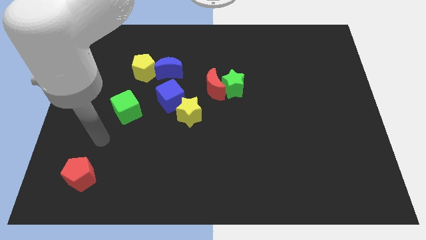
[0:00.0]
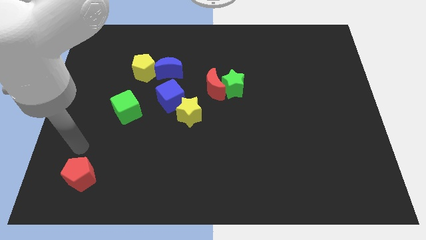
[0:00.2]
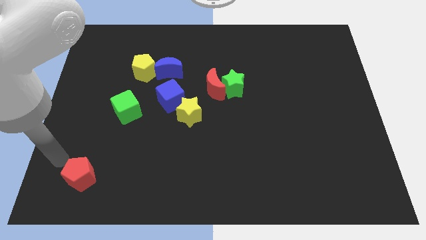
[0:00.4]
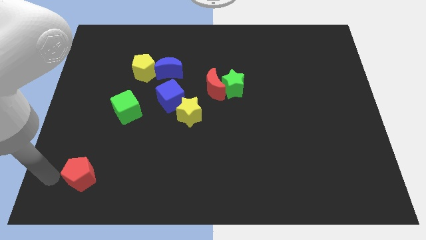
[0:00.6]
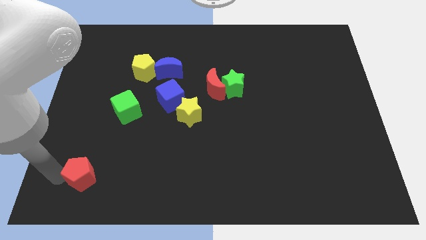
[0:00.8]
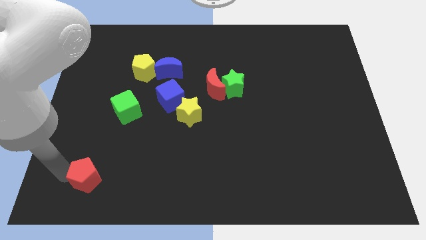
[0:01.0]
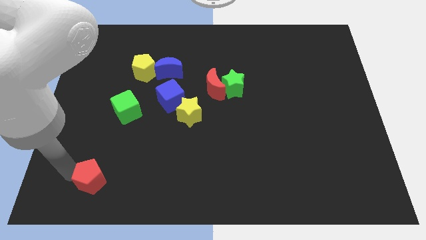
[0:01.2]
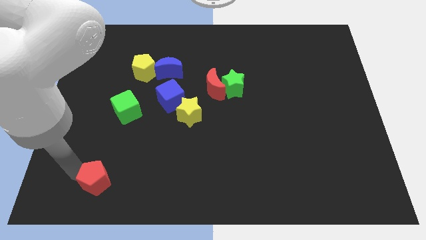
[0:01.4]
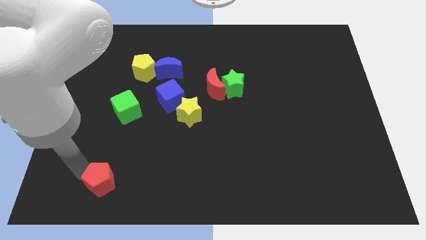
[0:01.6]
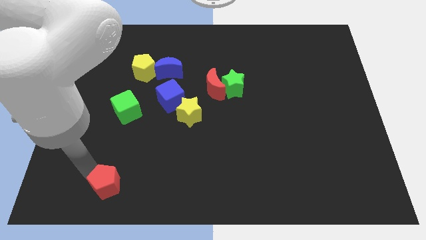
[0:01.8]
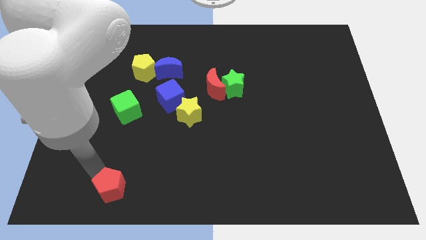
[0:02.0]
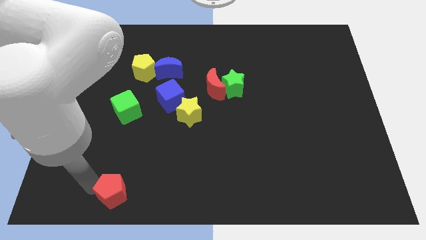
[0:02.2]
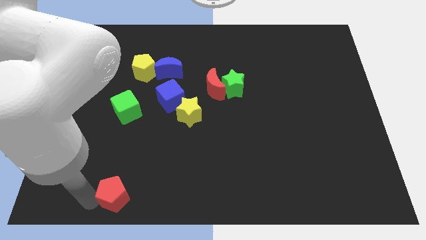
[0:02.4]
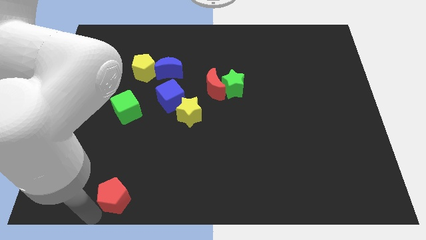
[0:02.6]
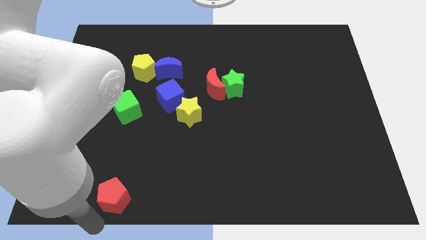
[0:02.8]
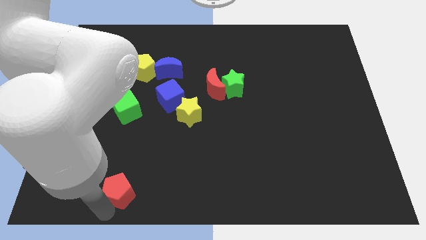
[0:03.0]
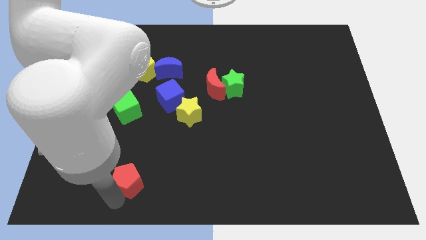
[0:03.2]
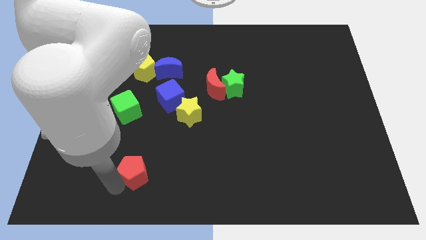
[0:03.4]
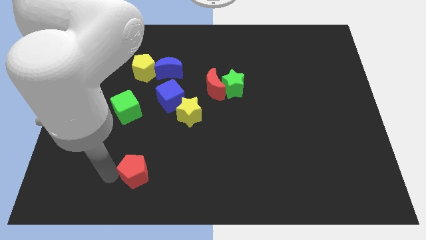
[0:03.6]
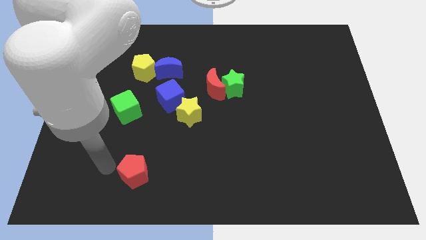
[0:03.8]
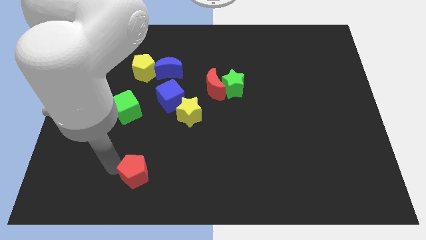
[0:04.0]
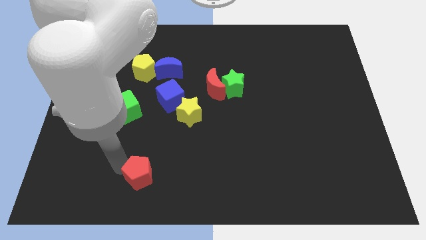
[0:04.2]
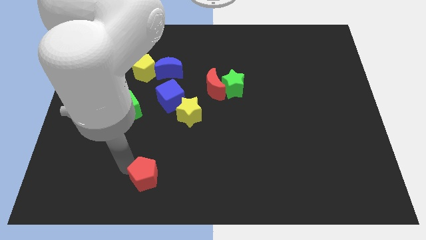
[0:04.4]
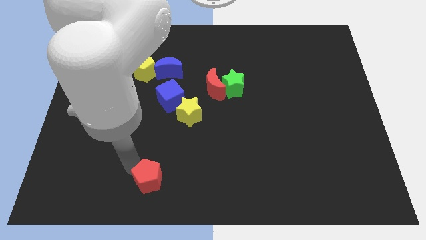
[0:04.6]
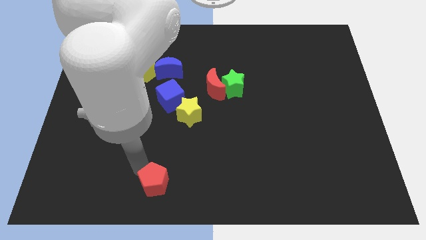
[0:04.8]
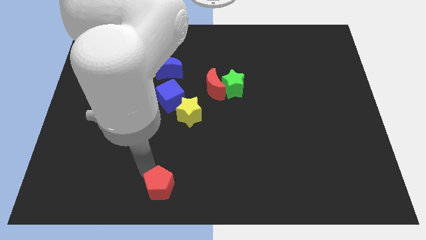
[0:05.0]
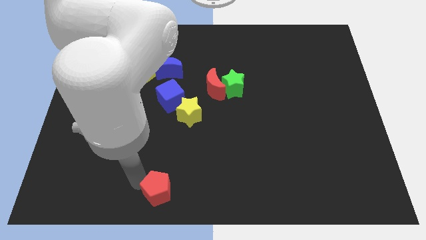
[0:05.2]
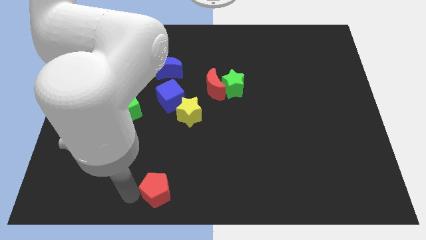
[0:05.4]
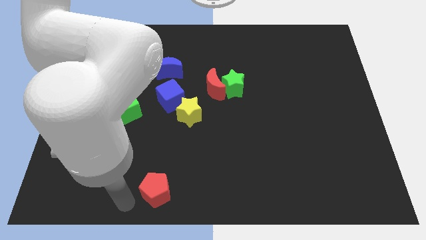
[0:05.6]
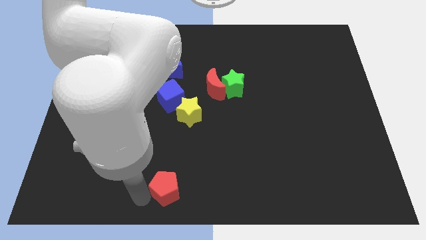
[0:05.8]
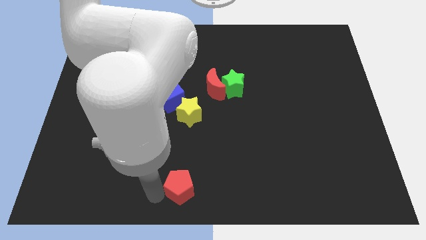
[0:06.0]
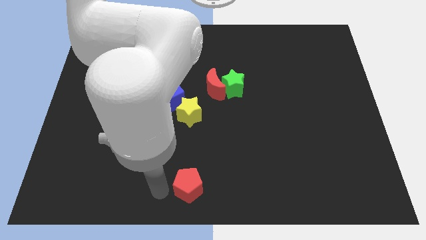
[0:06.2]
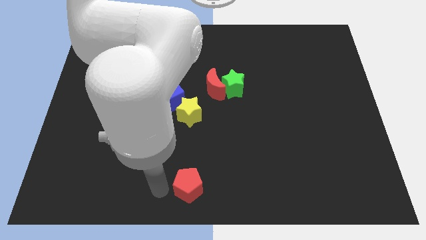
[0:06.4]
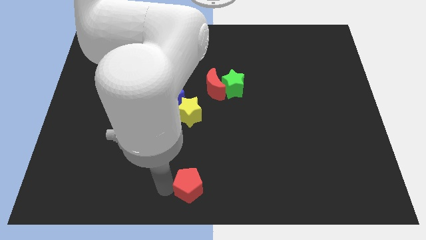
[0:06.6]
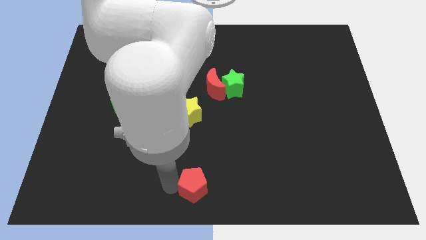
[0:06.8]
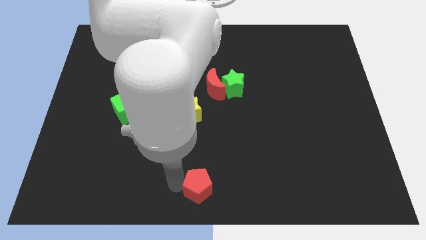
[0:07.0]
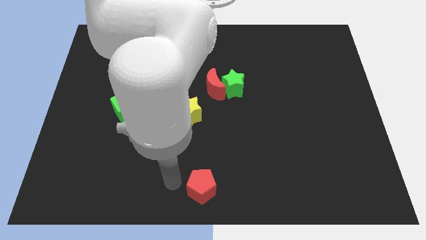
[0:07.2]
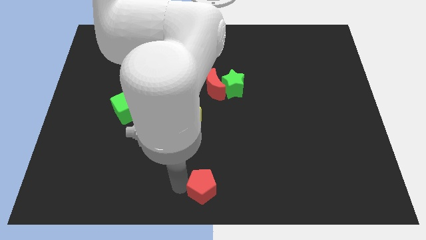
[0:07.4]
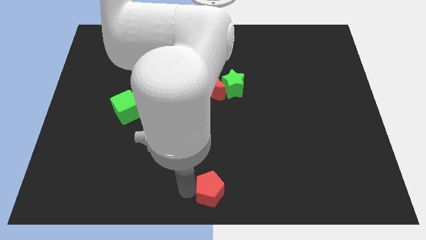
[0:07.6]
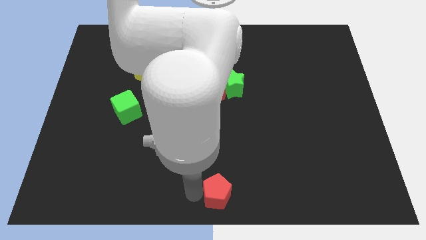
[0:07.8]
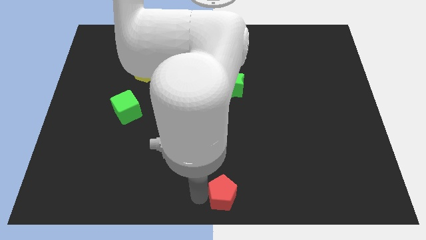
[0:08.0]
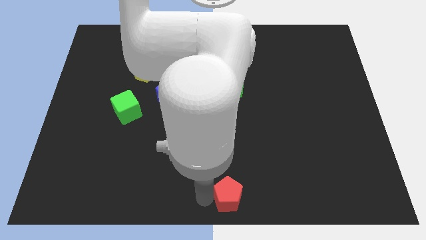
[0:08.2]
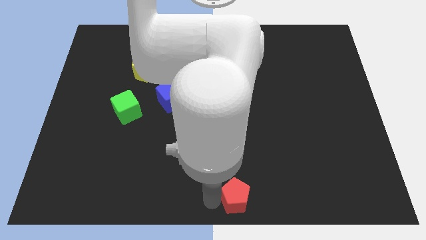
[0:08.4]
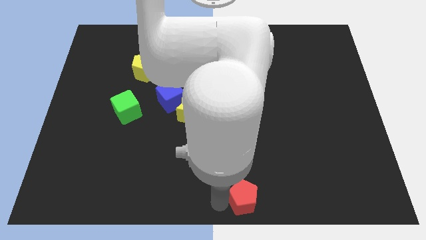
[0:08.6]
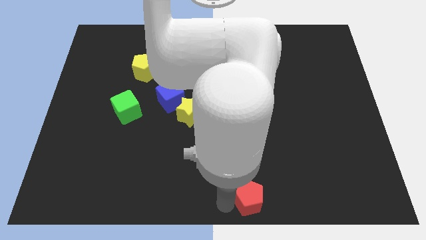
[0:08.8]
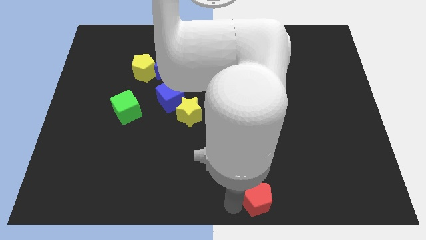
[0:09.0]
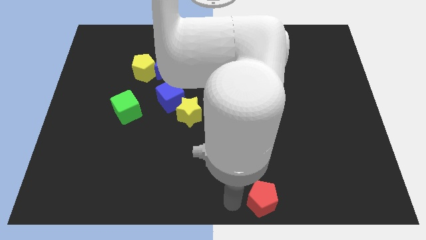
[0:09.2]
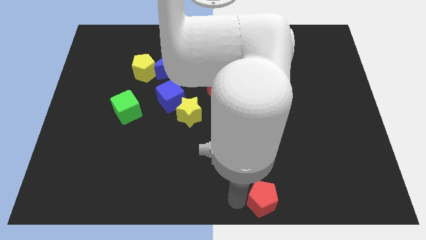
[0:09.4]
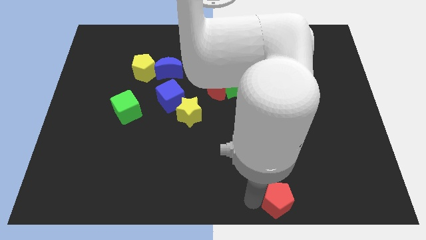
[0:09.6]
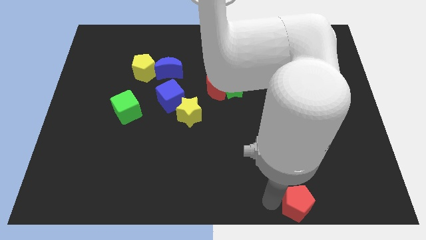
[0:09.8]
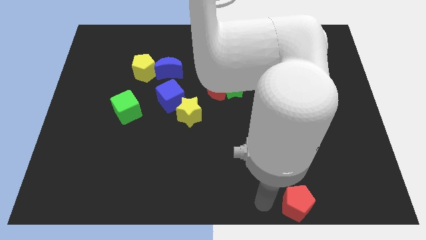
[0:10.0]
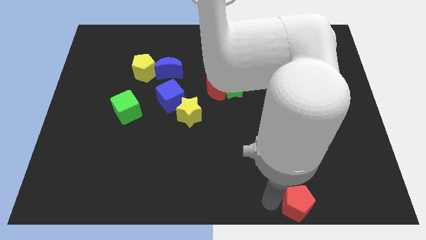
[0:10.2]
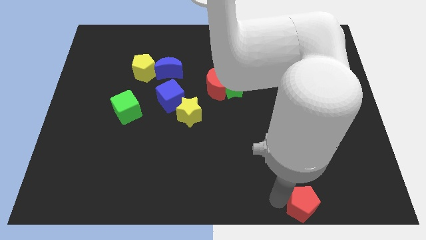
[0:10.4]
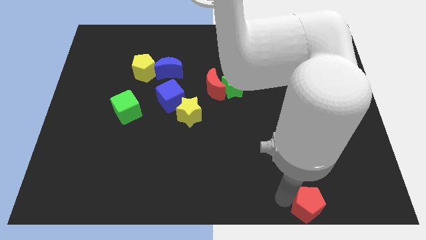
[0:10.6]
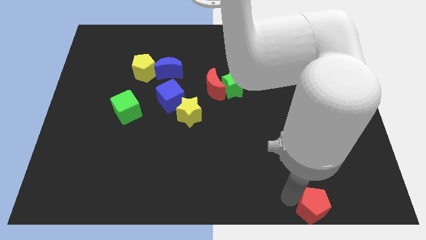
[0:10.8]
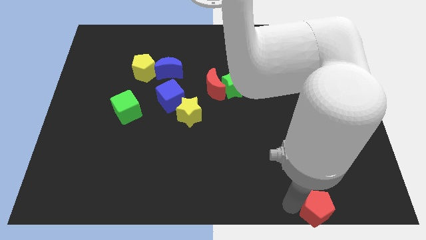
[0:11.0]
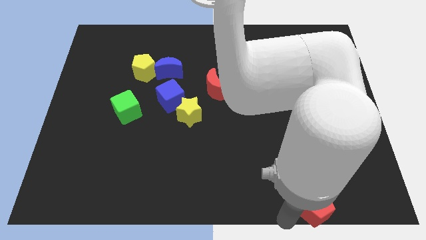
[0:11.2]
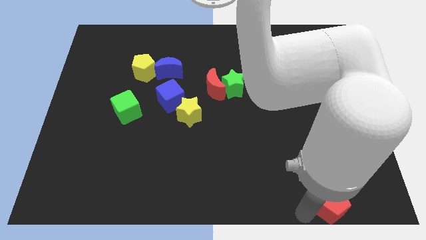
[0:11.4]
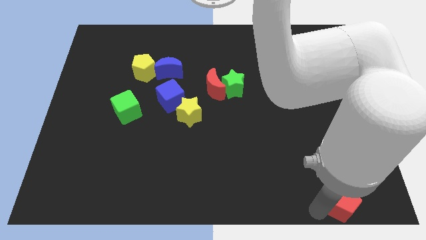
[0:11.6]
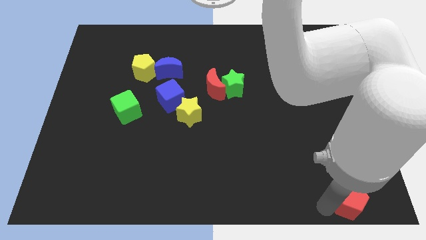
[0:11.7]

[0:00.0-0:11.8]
move the red pentagon to the bottom right
